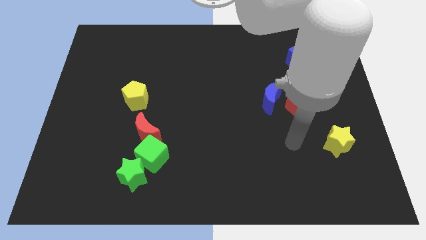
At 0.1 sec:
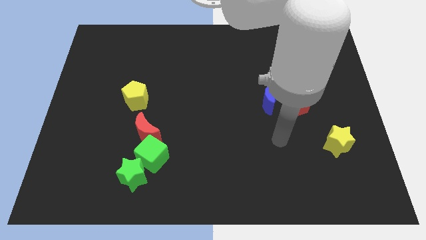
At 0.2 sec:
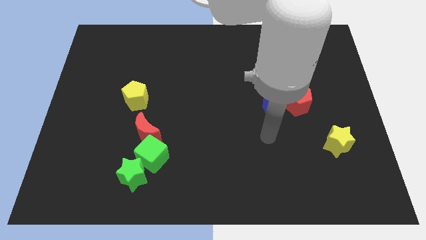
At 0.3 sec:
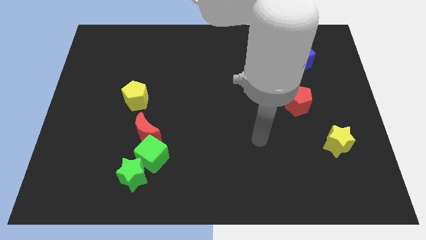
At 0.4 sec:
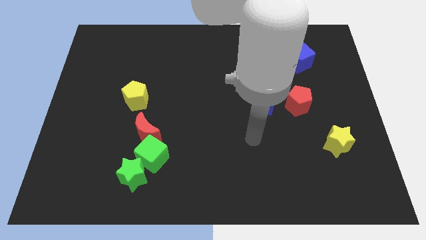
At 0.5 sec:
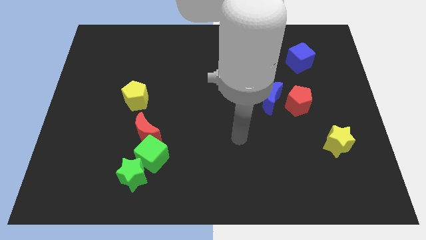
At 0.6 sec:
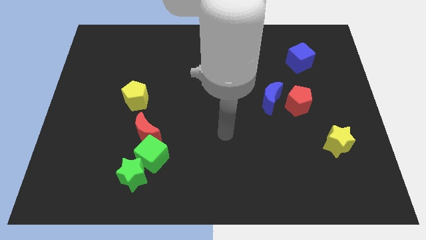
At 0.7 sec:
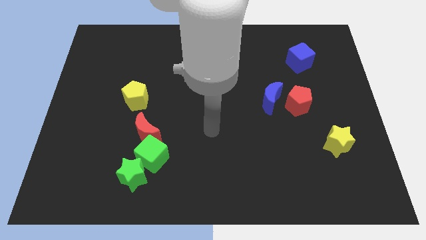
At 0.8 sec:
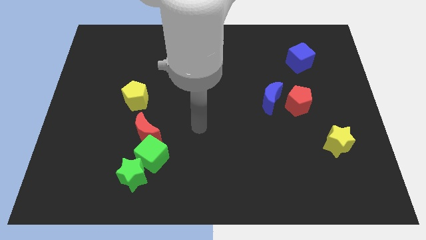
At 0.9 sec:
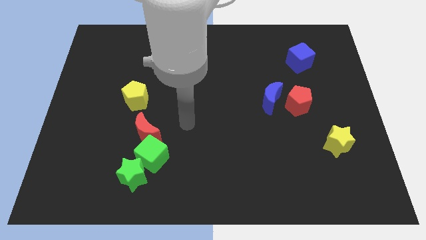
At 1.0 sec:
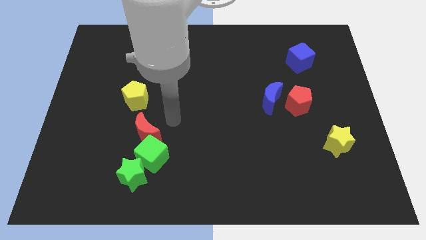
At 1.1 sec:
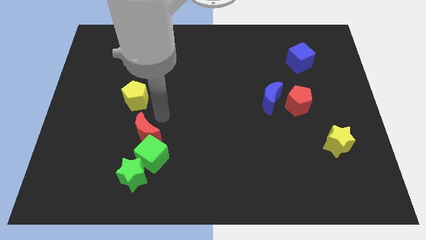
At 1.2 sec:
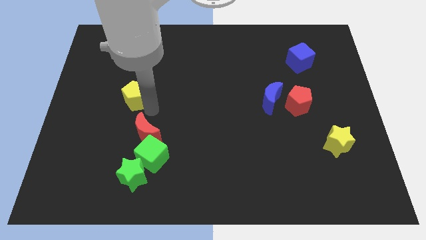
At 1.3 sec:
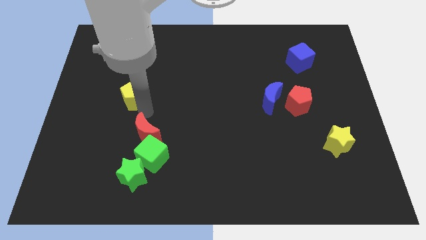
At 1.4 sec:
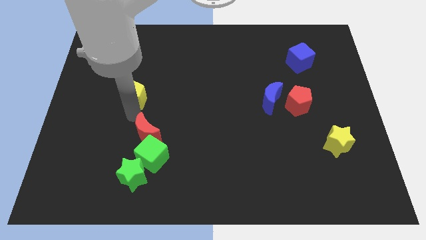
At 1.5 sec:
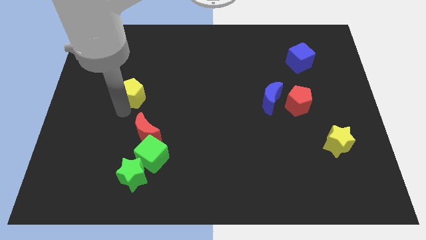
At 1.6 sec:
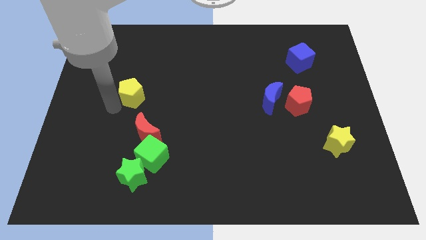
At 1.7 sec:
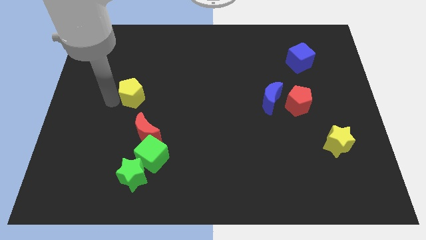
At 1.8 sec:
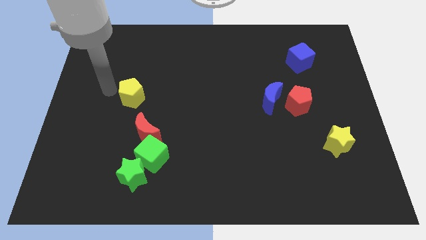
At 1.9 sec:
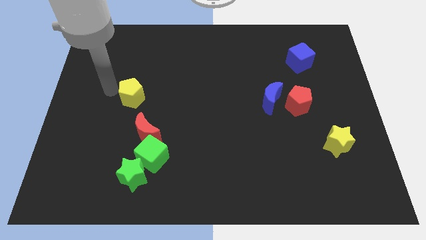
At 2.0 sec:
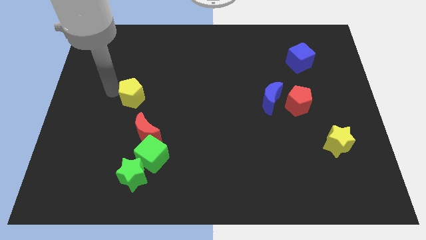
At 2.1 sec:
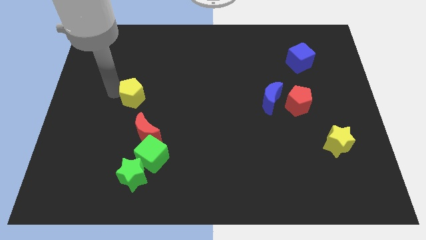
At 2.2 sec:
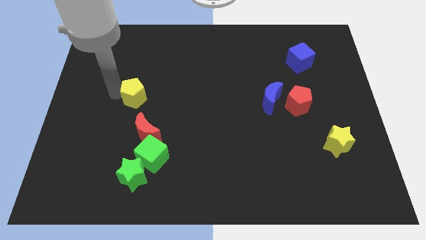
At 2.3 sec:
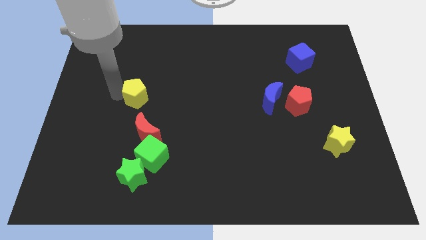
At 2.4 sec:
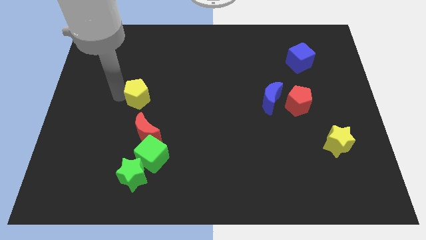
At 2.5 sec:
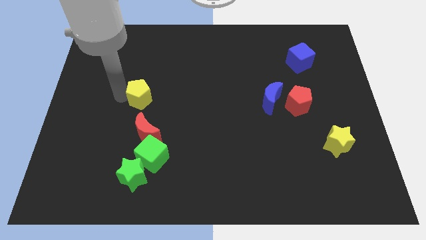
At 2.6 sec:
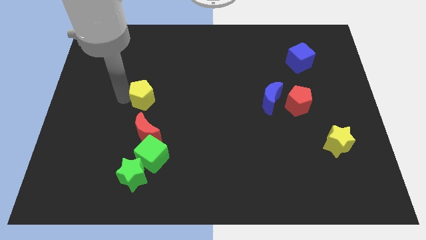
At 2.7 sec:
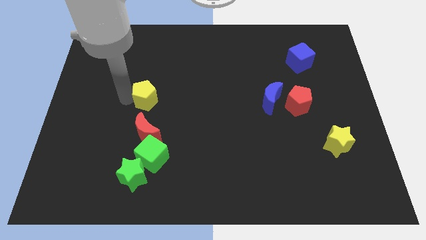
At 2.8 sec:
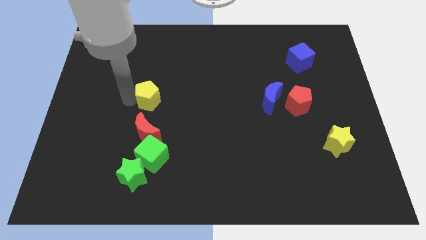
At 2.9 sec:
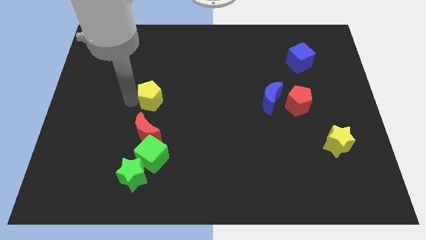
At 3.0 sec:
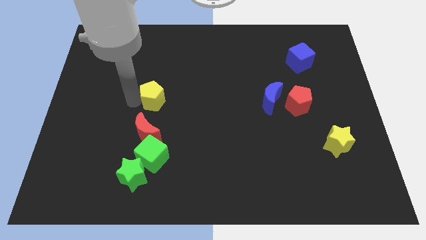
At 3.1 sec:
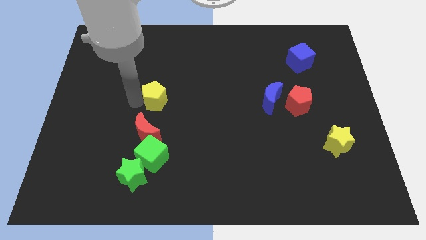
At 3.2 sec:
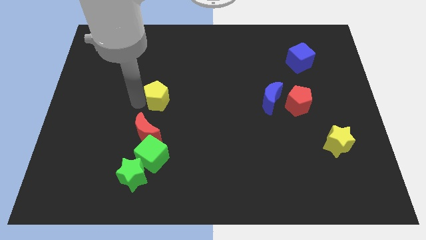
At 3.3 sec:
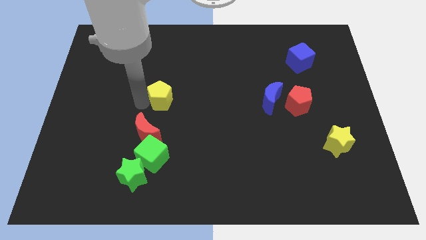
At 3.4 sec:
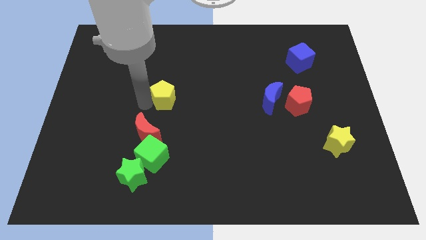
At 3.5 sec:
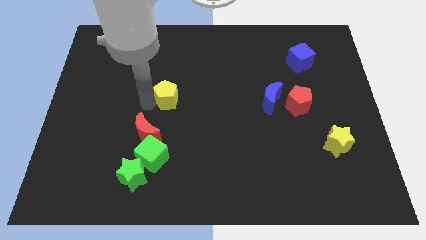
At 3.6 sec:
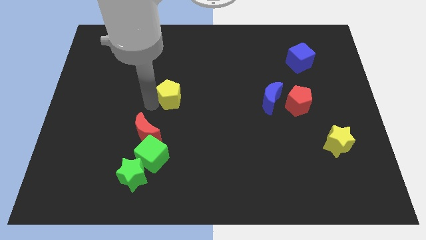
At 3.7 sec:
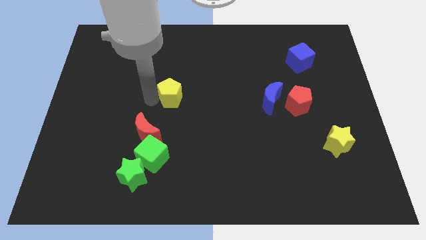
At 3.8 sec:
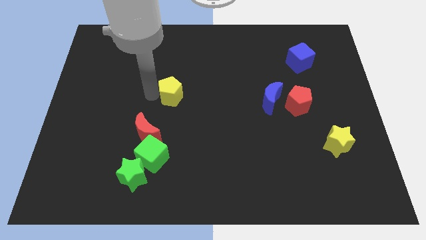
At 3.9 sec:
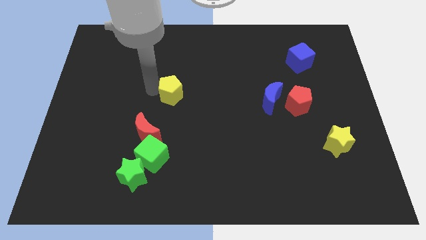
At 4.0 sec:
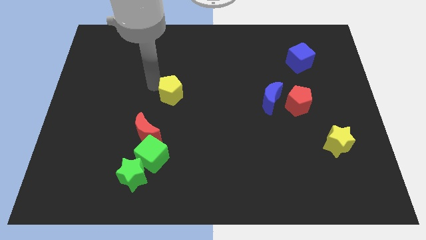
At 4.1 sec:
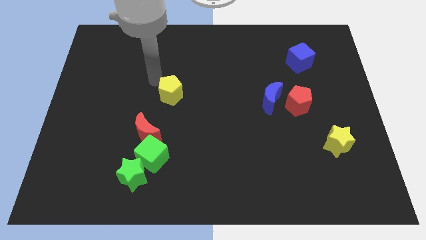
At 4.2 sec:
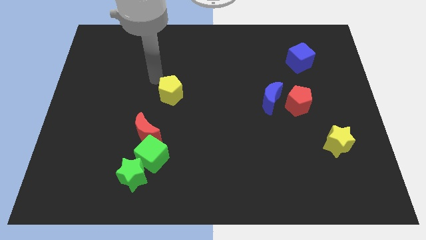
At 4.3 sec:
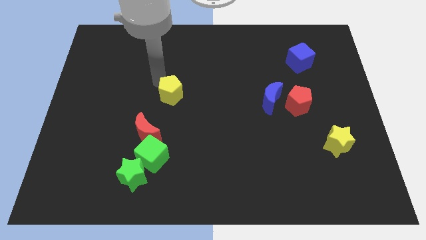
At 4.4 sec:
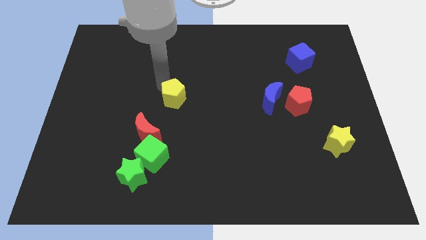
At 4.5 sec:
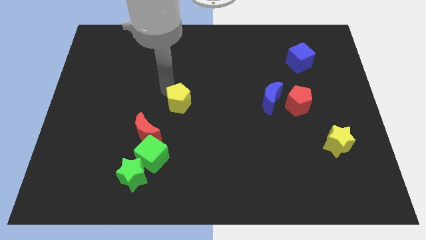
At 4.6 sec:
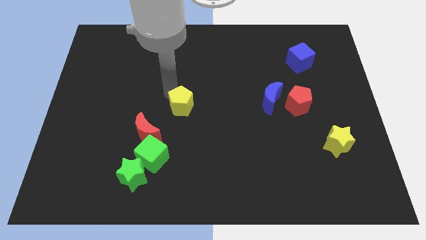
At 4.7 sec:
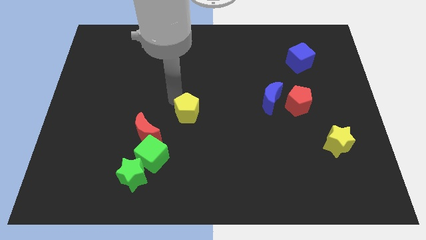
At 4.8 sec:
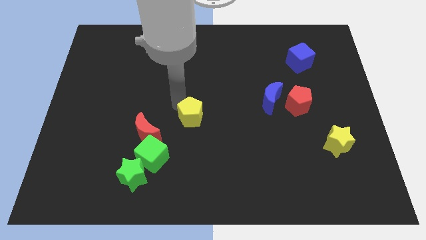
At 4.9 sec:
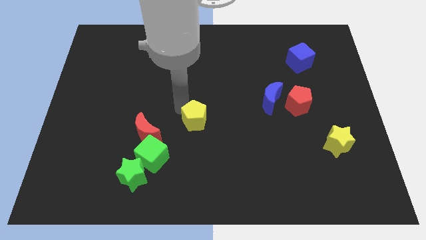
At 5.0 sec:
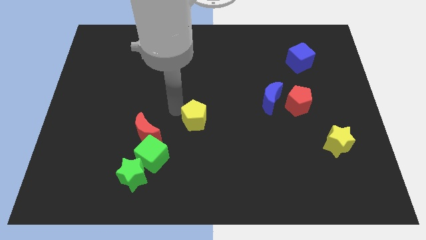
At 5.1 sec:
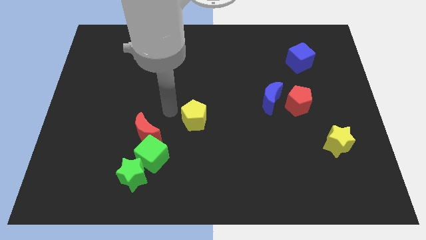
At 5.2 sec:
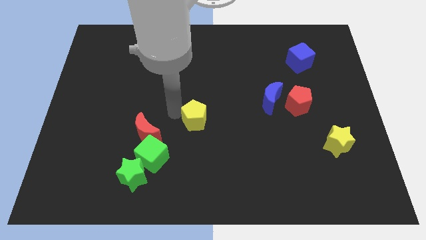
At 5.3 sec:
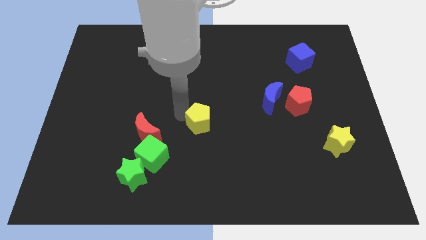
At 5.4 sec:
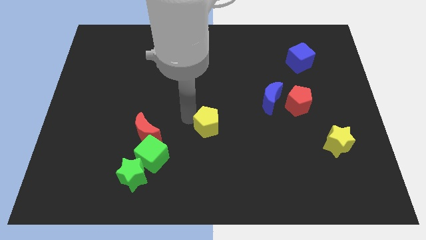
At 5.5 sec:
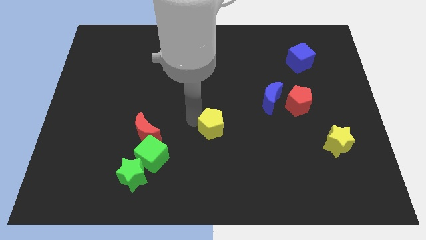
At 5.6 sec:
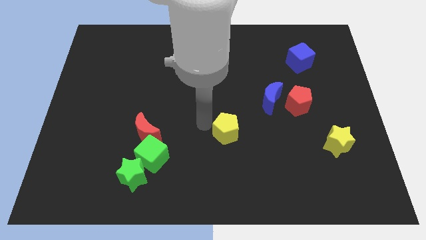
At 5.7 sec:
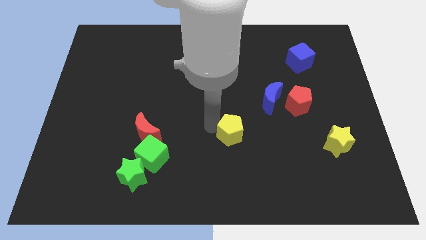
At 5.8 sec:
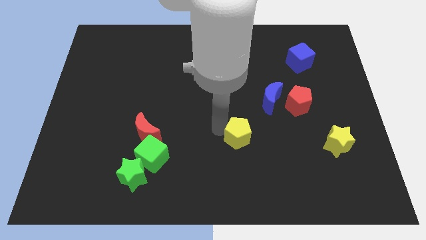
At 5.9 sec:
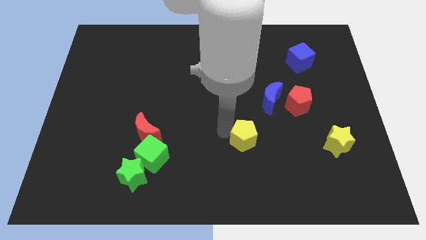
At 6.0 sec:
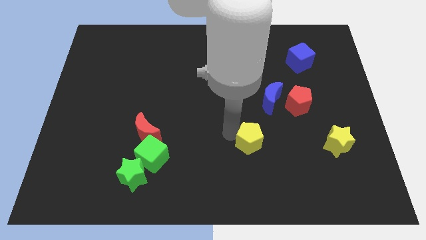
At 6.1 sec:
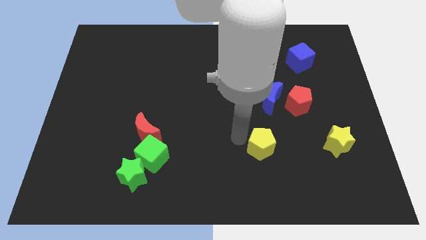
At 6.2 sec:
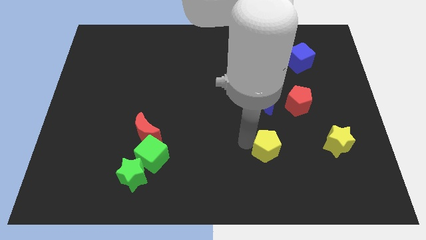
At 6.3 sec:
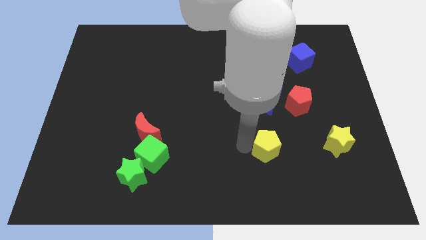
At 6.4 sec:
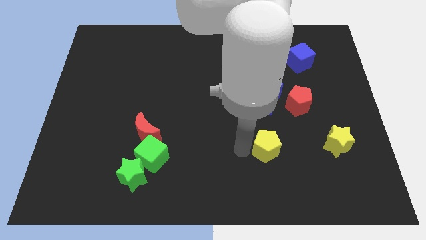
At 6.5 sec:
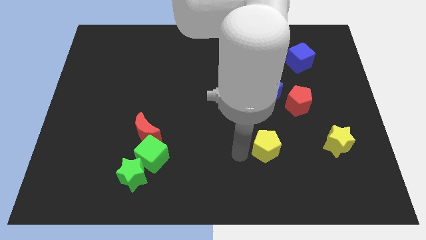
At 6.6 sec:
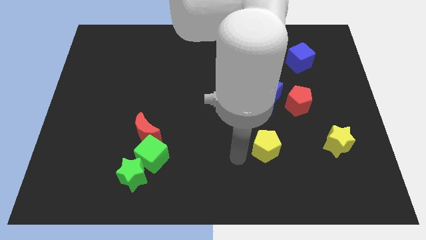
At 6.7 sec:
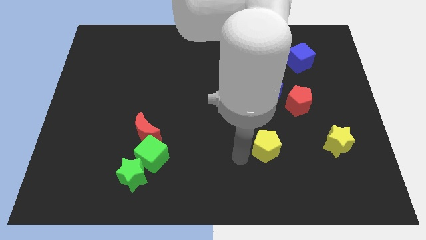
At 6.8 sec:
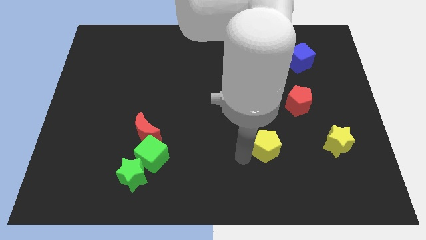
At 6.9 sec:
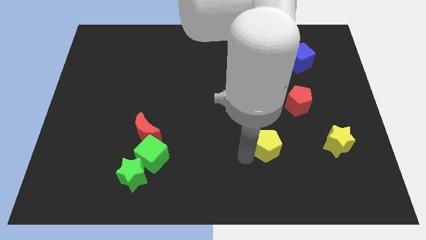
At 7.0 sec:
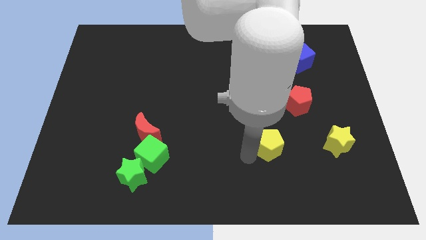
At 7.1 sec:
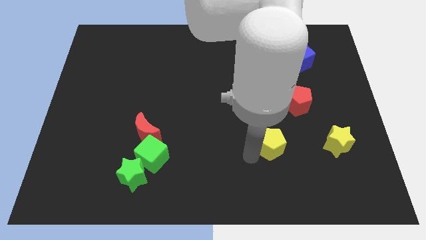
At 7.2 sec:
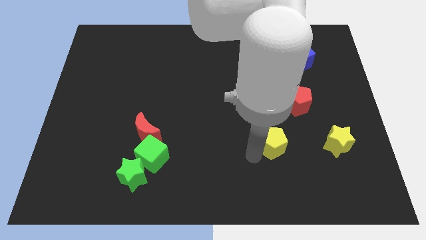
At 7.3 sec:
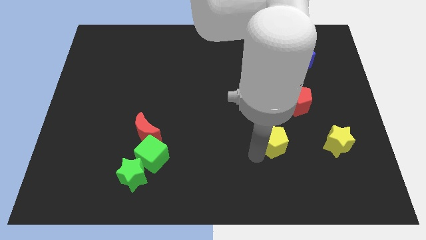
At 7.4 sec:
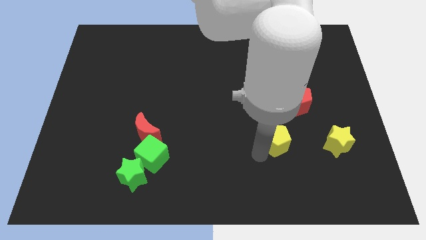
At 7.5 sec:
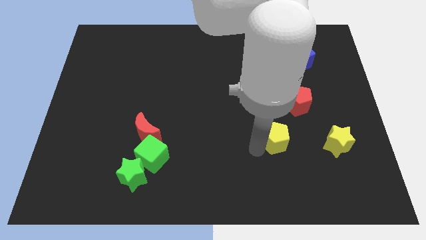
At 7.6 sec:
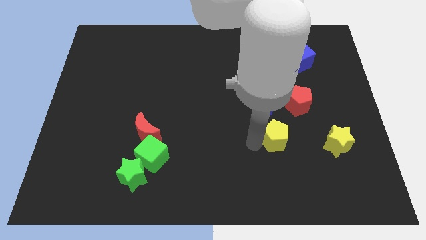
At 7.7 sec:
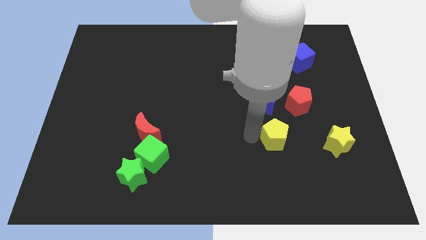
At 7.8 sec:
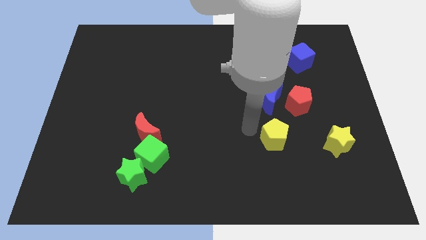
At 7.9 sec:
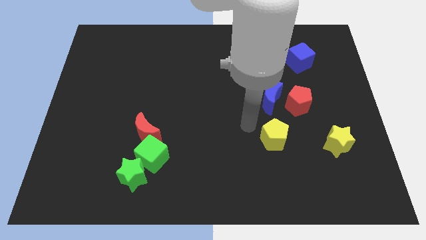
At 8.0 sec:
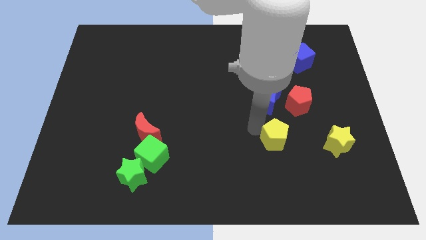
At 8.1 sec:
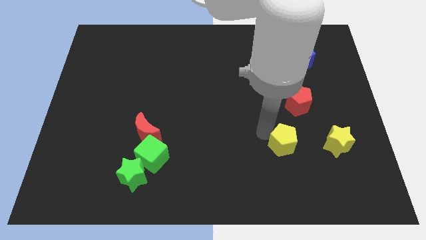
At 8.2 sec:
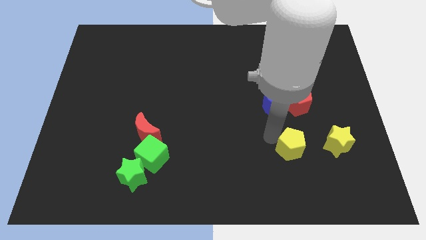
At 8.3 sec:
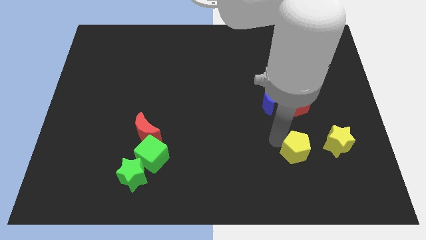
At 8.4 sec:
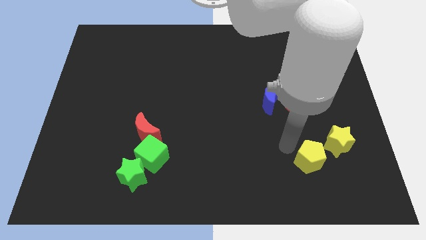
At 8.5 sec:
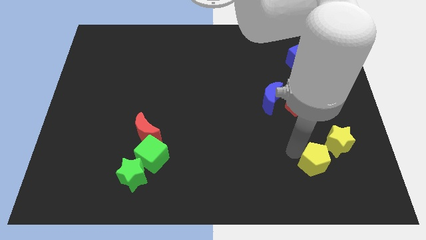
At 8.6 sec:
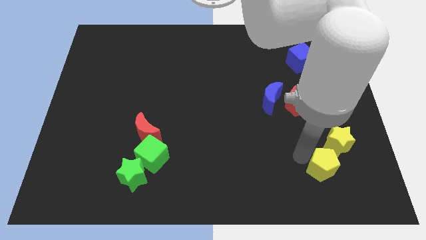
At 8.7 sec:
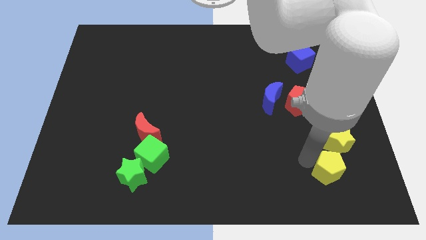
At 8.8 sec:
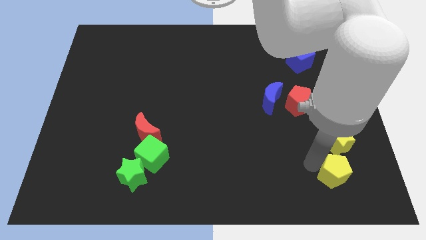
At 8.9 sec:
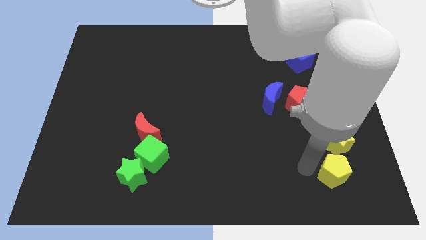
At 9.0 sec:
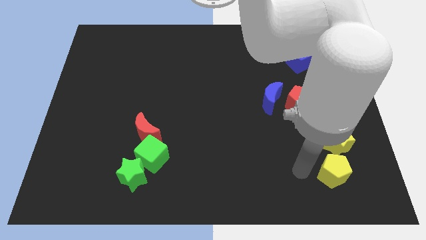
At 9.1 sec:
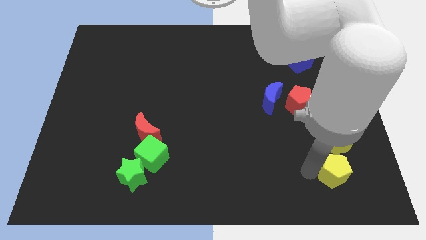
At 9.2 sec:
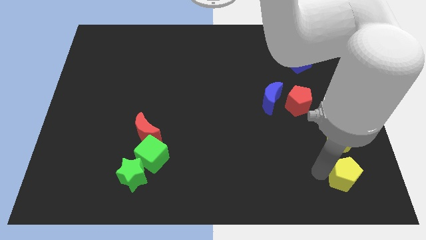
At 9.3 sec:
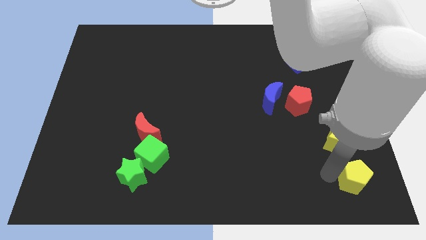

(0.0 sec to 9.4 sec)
push the yellow pentagon to the lower right corner
